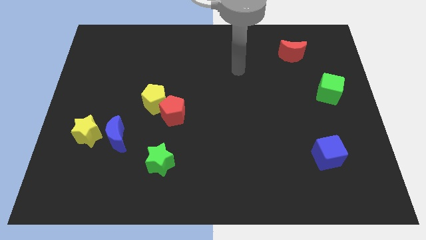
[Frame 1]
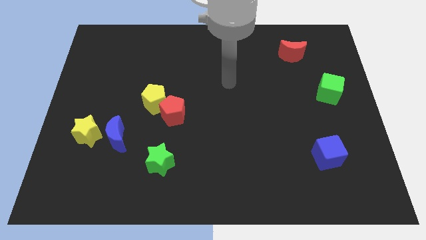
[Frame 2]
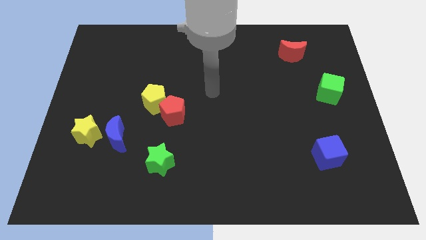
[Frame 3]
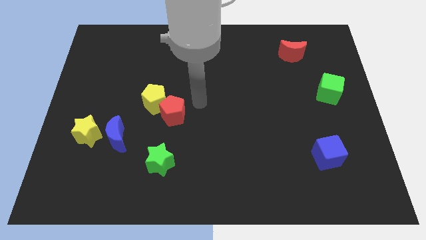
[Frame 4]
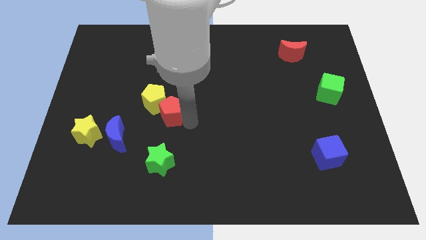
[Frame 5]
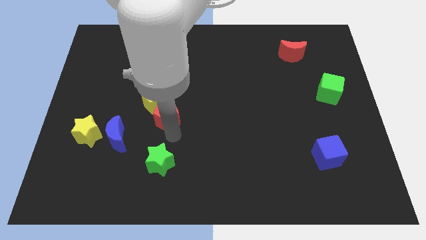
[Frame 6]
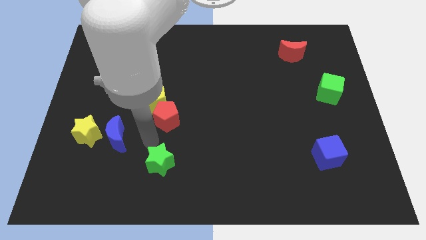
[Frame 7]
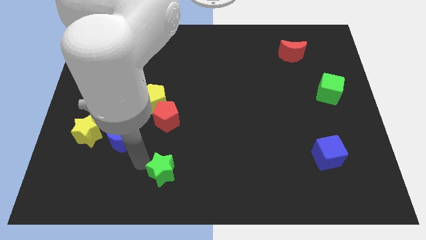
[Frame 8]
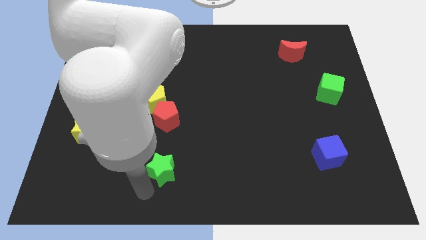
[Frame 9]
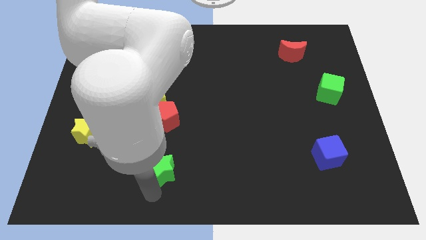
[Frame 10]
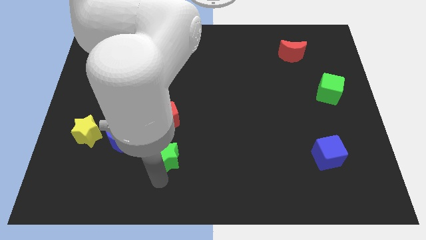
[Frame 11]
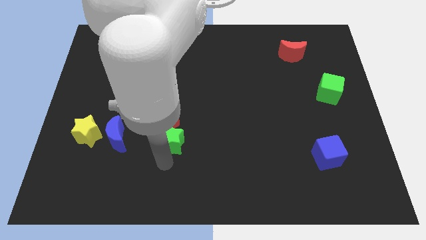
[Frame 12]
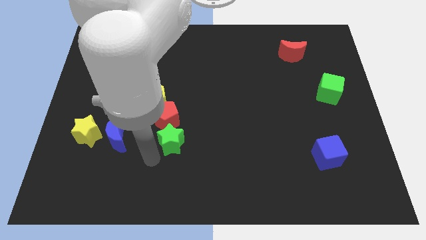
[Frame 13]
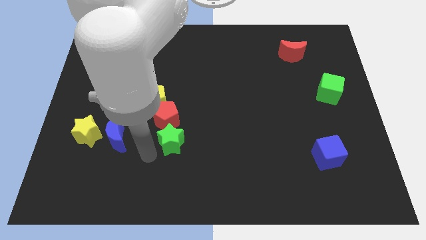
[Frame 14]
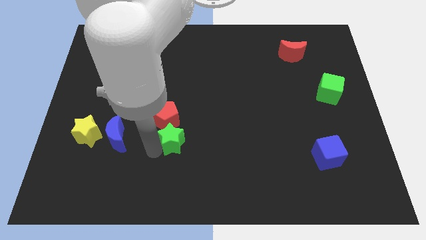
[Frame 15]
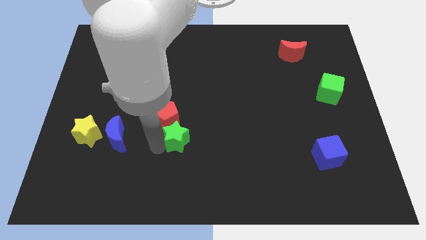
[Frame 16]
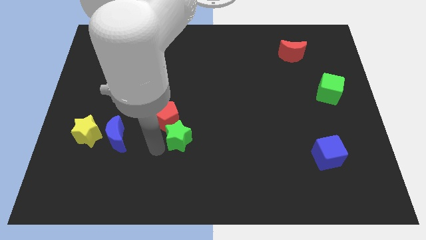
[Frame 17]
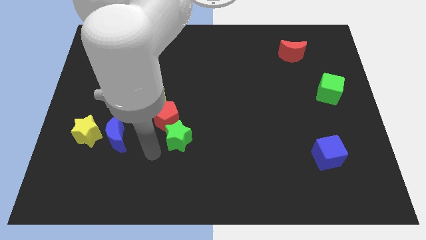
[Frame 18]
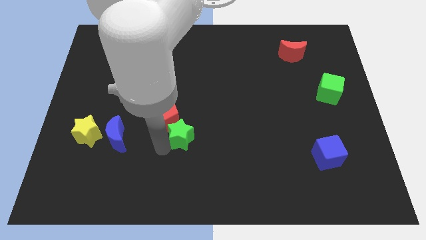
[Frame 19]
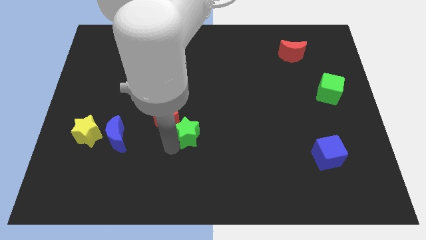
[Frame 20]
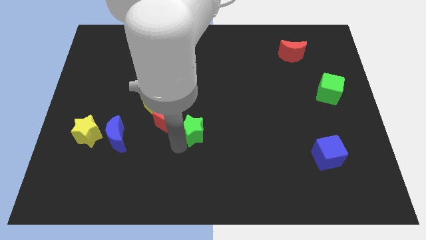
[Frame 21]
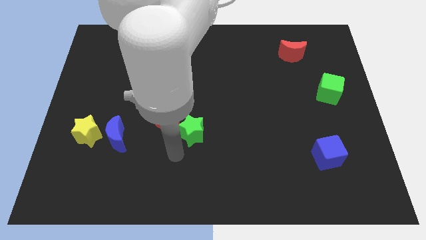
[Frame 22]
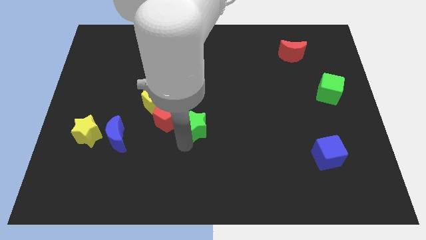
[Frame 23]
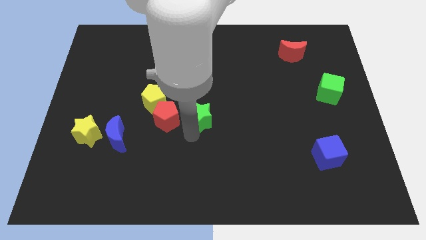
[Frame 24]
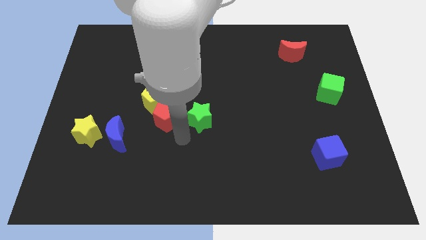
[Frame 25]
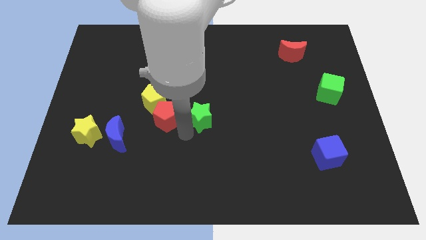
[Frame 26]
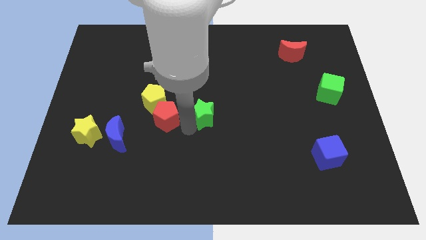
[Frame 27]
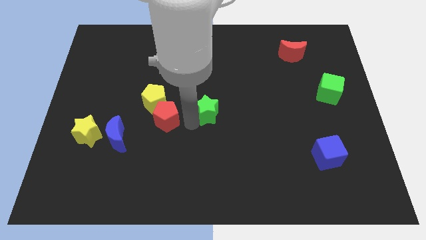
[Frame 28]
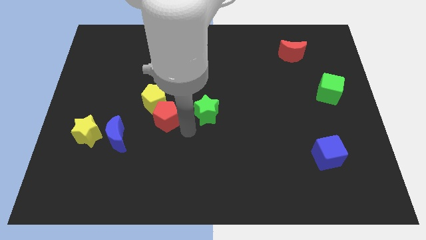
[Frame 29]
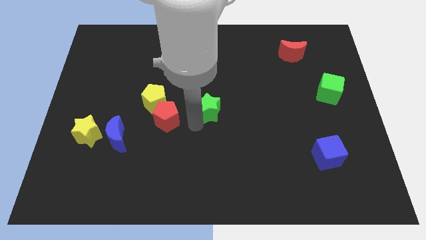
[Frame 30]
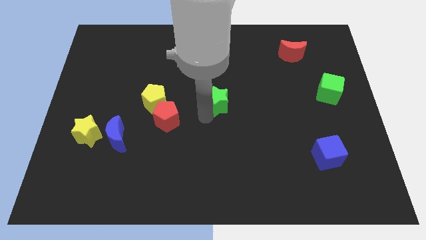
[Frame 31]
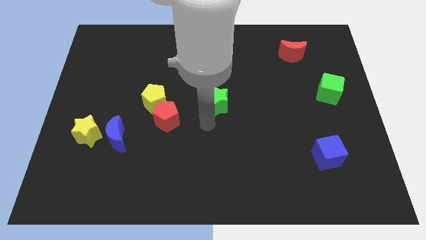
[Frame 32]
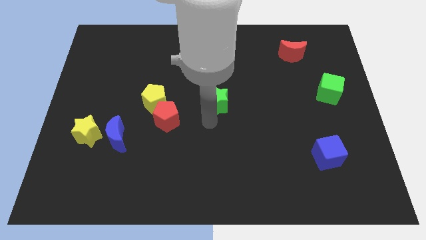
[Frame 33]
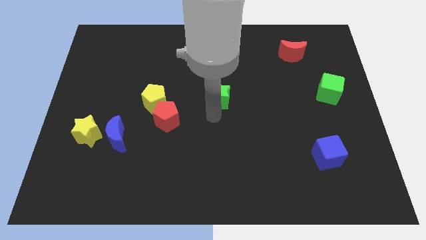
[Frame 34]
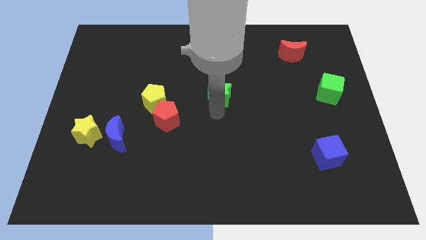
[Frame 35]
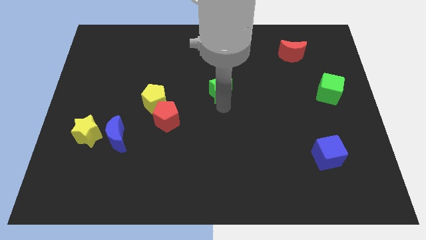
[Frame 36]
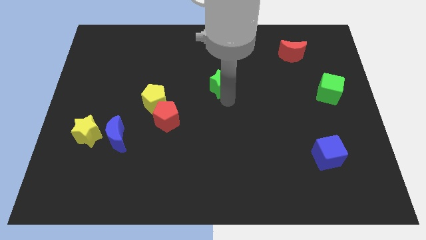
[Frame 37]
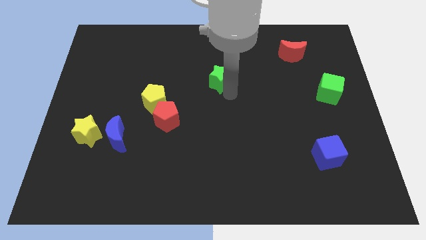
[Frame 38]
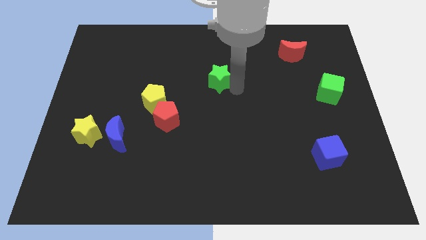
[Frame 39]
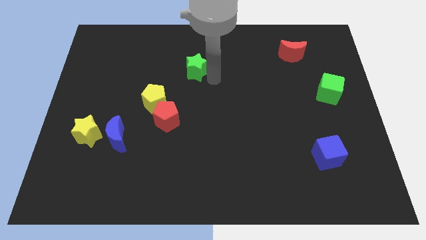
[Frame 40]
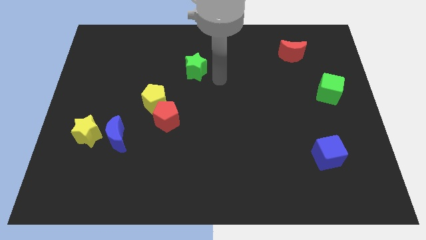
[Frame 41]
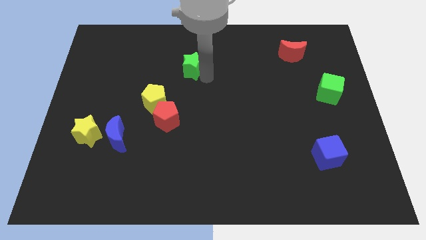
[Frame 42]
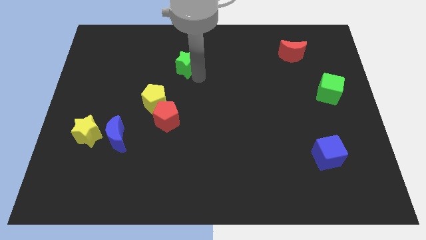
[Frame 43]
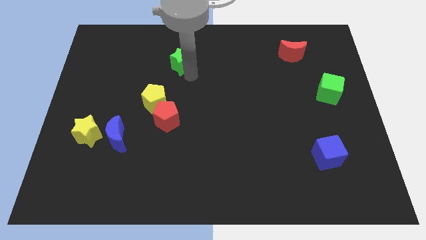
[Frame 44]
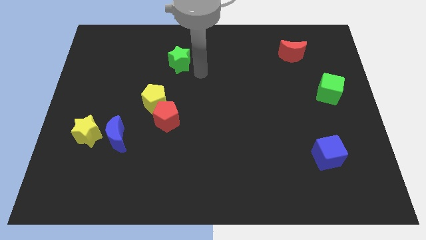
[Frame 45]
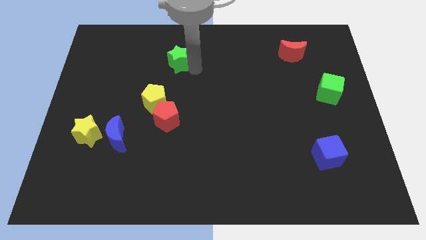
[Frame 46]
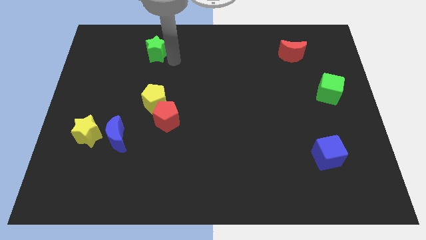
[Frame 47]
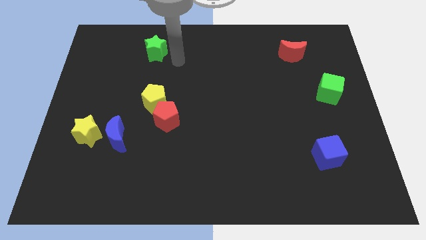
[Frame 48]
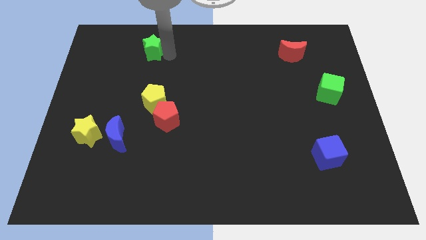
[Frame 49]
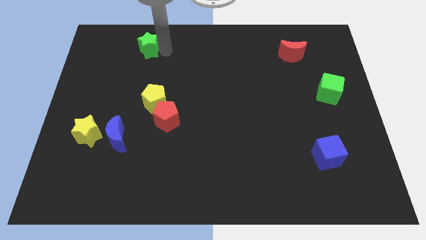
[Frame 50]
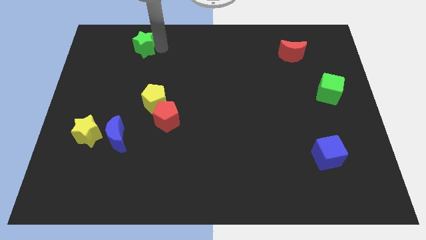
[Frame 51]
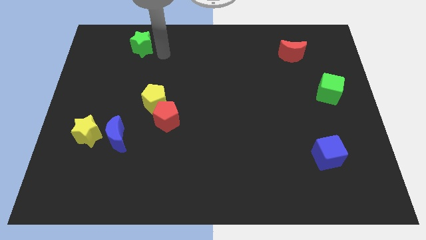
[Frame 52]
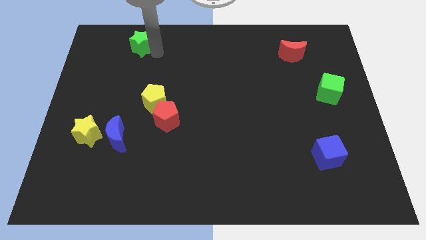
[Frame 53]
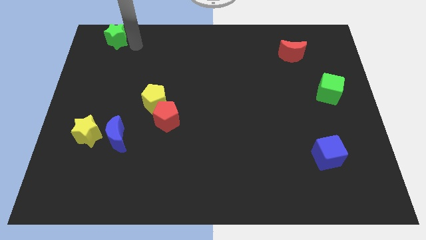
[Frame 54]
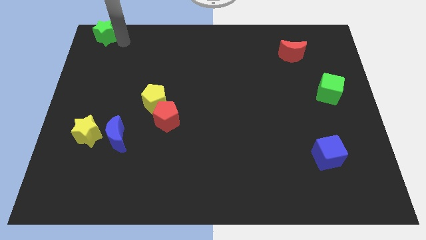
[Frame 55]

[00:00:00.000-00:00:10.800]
put the green star to the top left corner

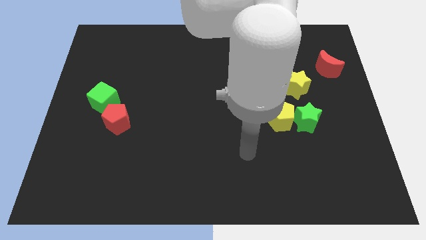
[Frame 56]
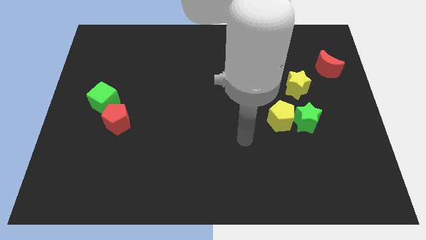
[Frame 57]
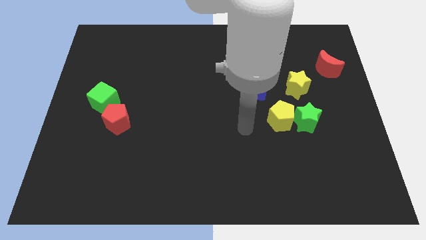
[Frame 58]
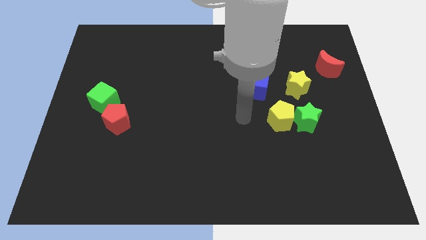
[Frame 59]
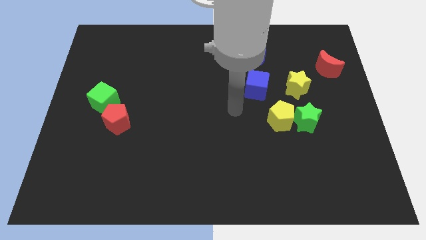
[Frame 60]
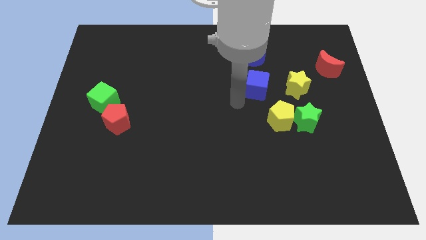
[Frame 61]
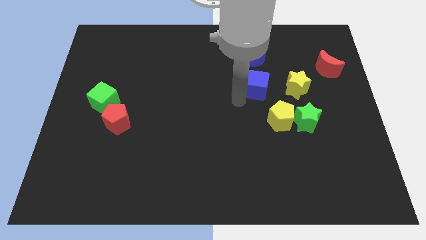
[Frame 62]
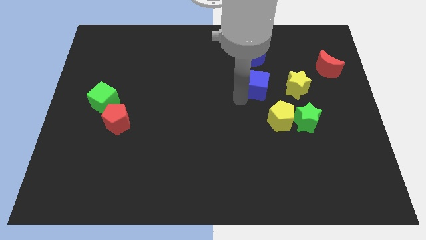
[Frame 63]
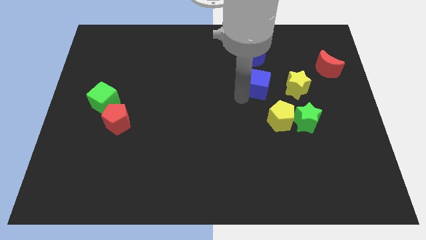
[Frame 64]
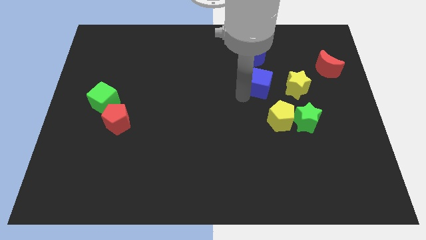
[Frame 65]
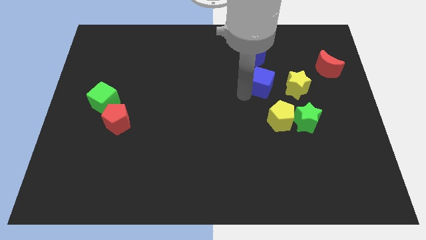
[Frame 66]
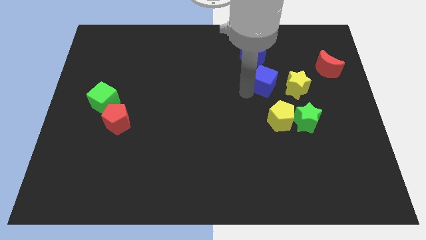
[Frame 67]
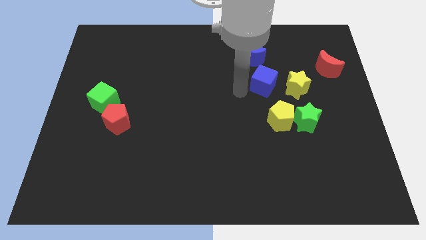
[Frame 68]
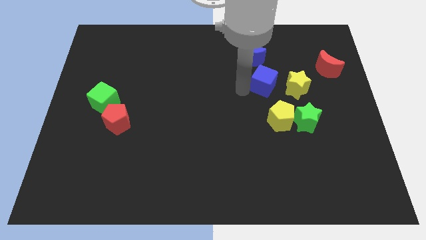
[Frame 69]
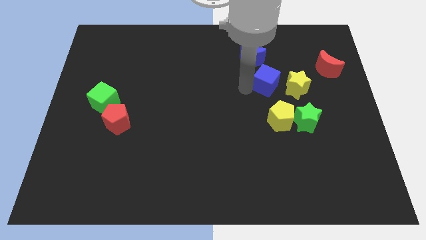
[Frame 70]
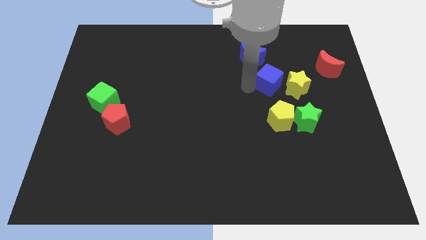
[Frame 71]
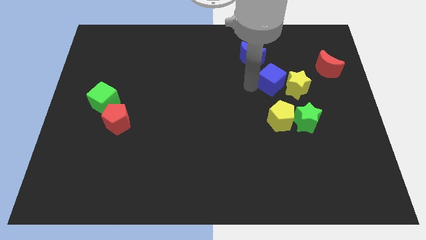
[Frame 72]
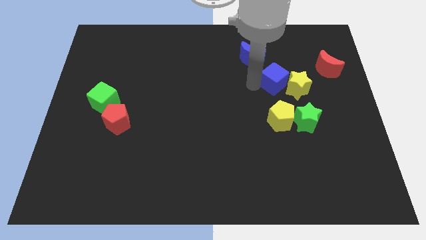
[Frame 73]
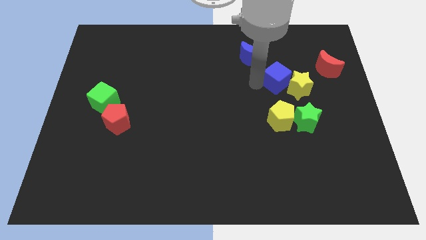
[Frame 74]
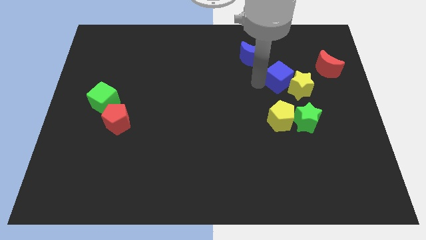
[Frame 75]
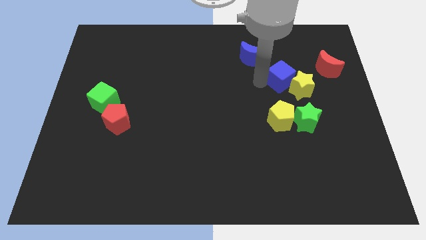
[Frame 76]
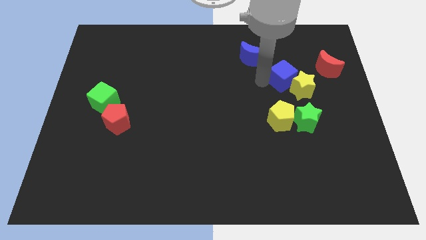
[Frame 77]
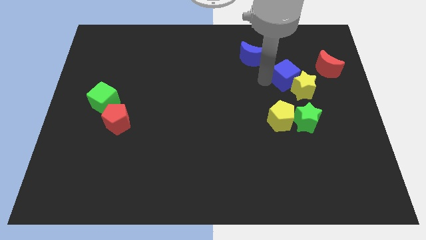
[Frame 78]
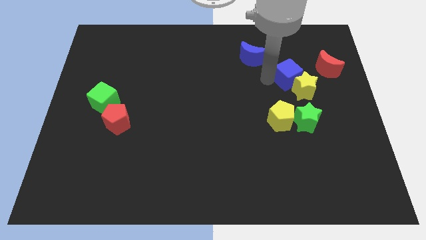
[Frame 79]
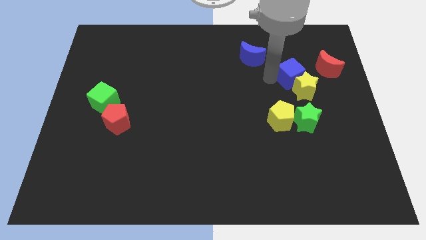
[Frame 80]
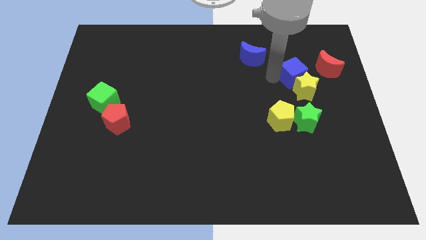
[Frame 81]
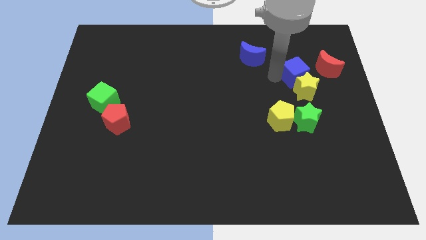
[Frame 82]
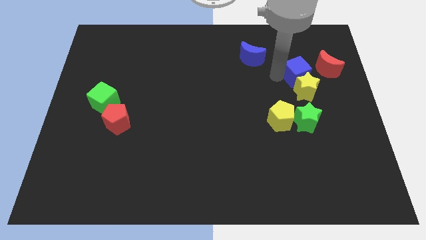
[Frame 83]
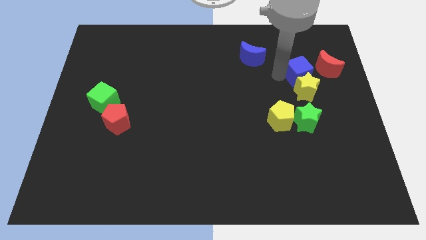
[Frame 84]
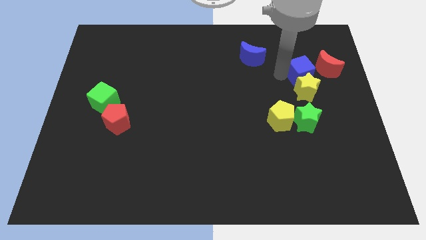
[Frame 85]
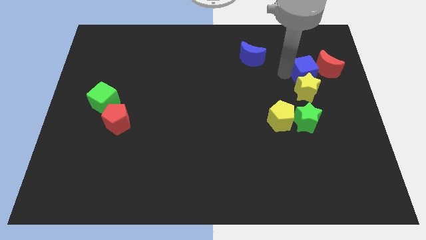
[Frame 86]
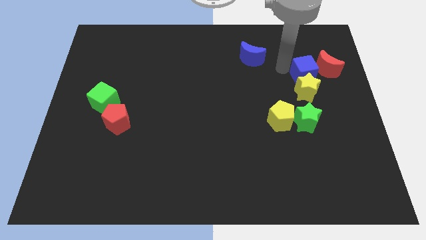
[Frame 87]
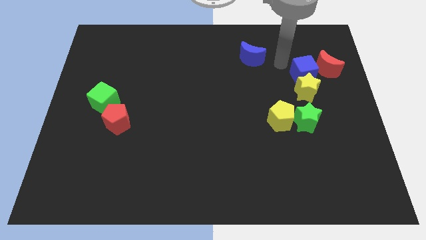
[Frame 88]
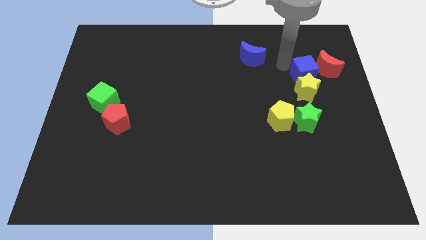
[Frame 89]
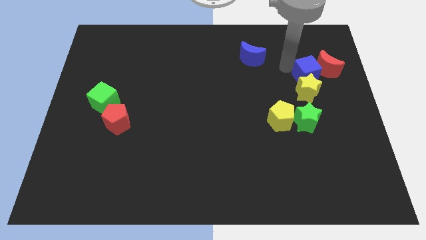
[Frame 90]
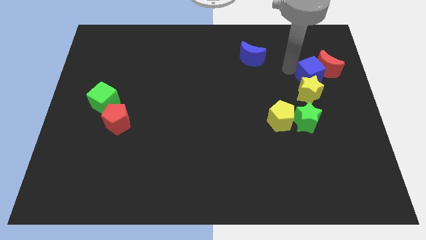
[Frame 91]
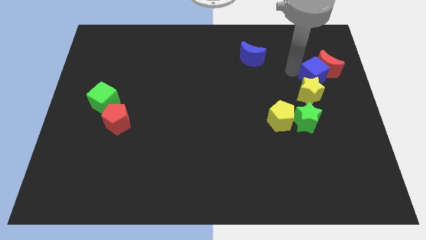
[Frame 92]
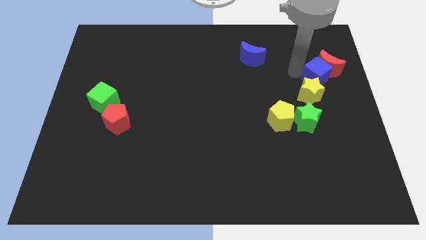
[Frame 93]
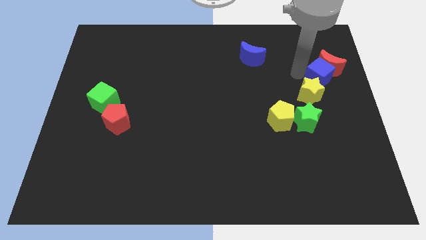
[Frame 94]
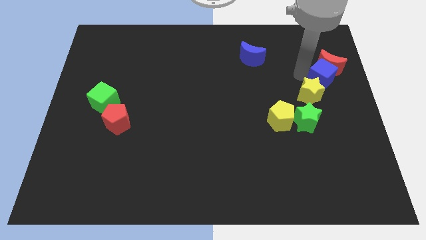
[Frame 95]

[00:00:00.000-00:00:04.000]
push the blue cube to the right side of the board
